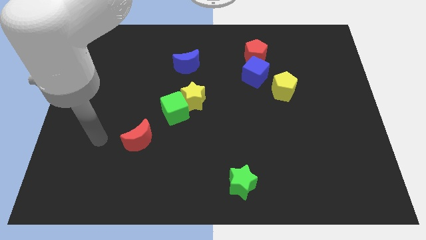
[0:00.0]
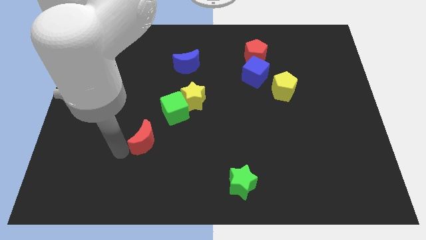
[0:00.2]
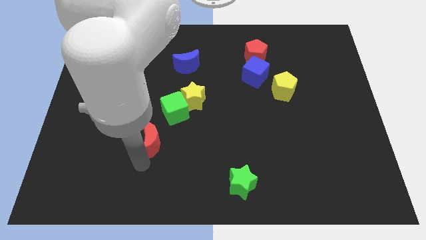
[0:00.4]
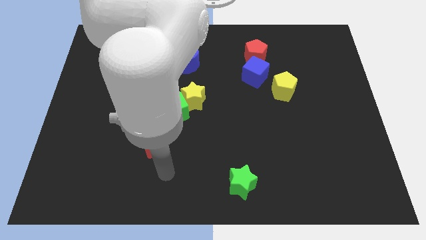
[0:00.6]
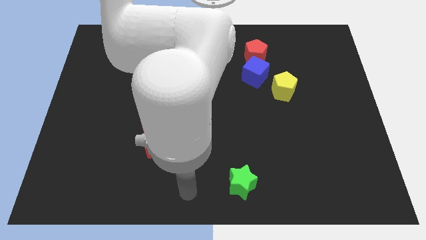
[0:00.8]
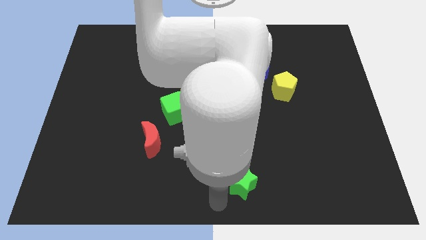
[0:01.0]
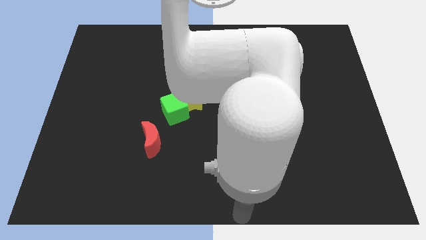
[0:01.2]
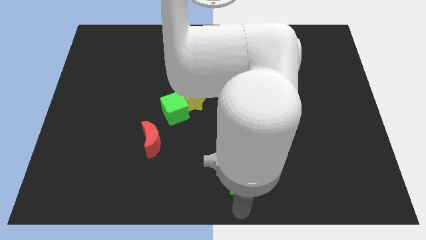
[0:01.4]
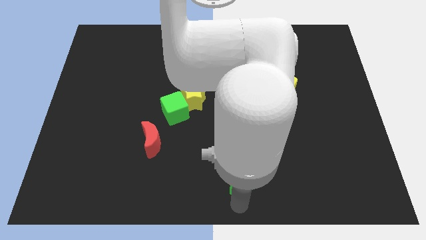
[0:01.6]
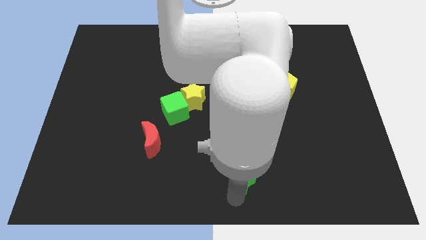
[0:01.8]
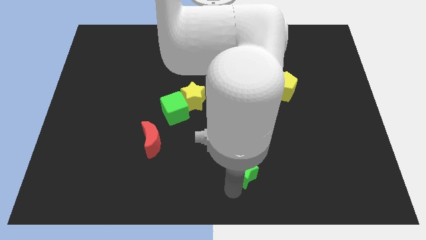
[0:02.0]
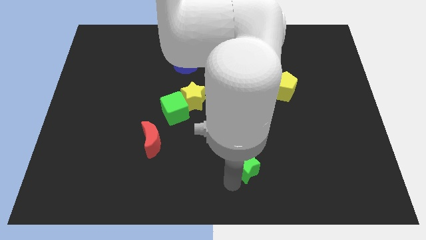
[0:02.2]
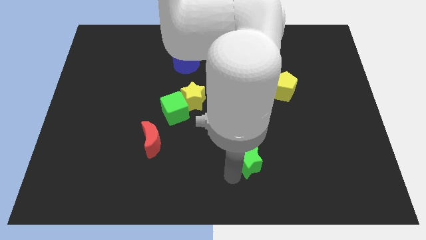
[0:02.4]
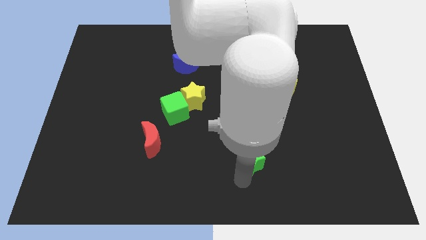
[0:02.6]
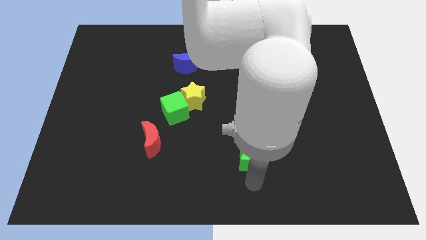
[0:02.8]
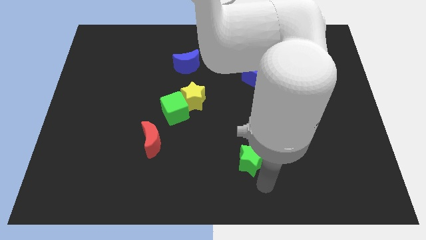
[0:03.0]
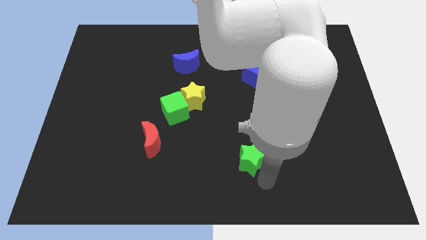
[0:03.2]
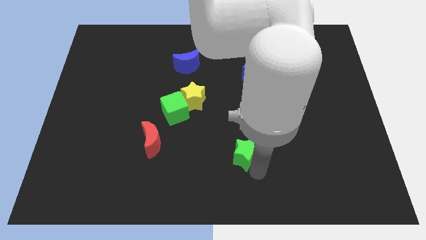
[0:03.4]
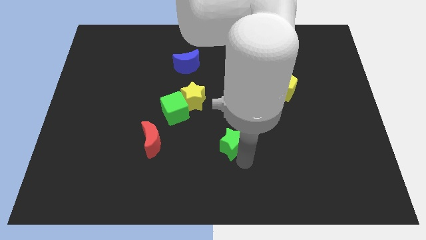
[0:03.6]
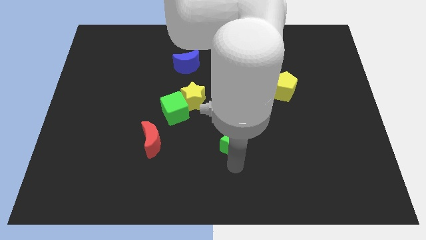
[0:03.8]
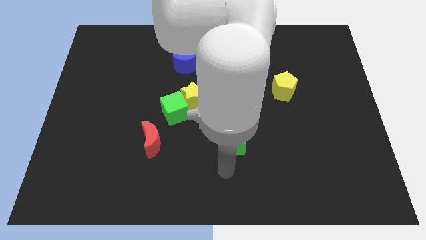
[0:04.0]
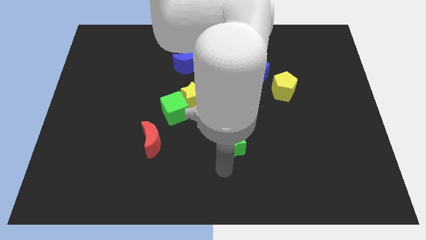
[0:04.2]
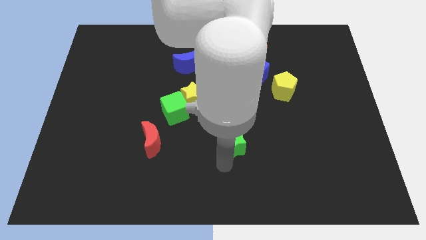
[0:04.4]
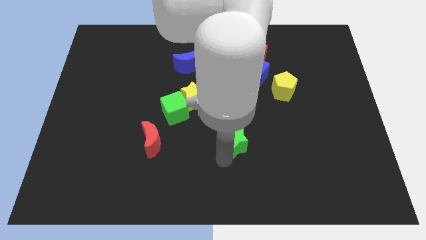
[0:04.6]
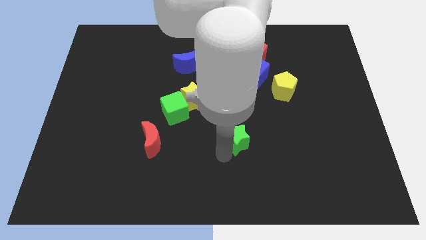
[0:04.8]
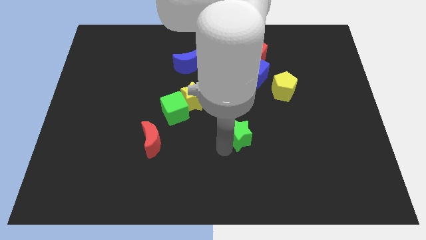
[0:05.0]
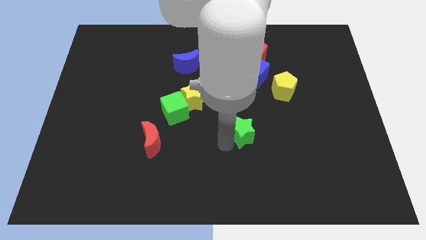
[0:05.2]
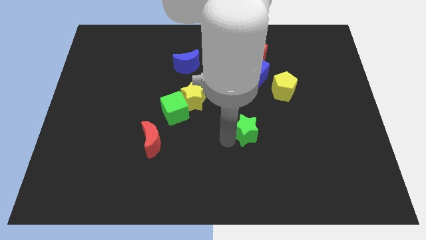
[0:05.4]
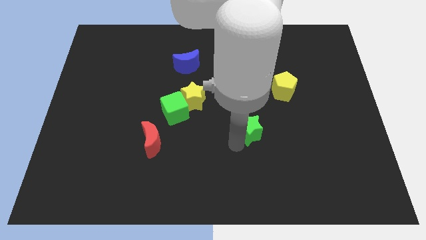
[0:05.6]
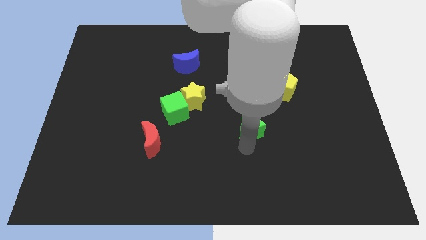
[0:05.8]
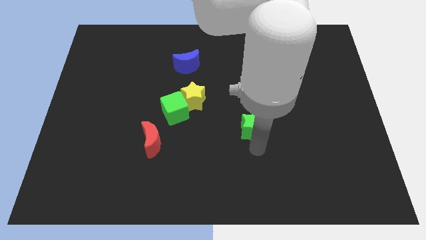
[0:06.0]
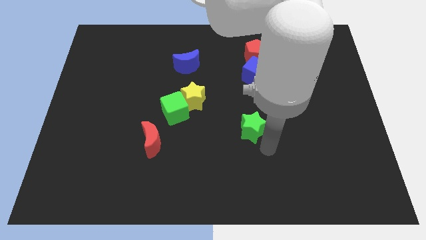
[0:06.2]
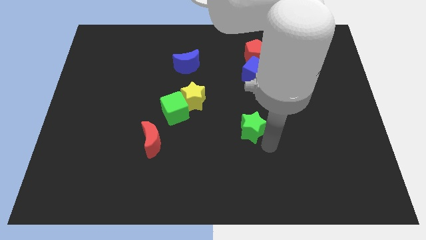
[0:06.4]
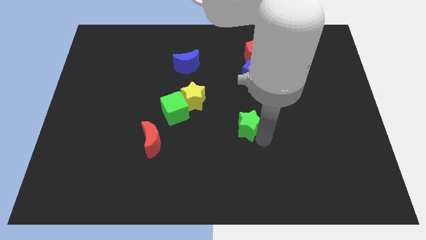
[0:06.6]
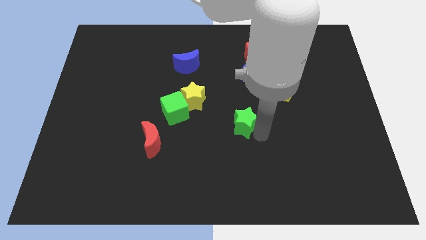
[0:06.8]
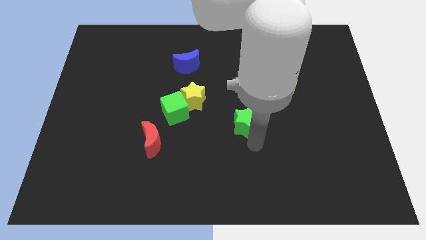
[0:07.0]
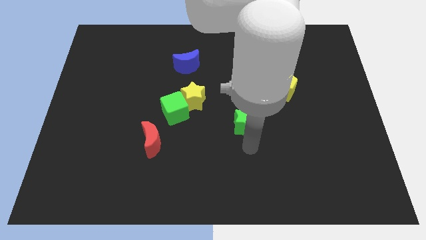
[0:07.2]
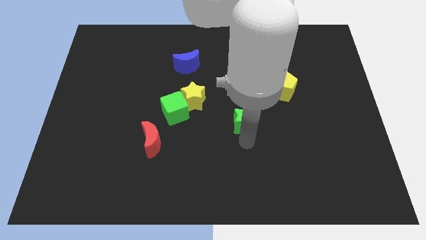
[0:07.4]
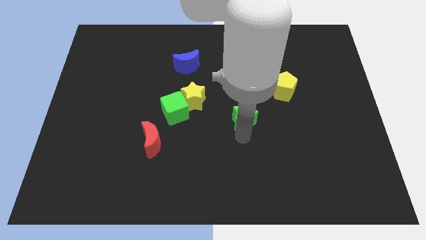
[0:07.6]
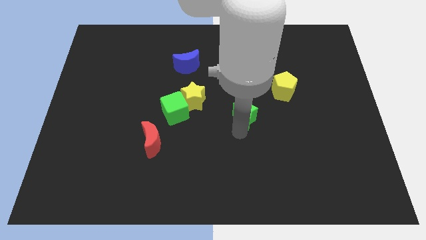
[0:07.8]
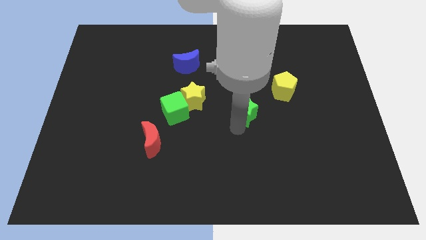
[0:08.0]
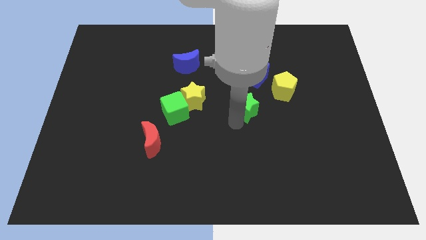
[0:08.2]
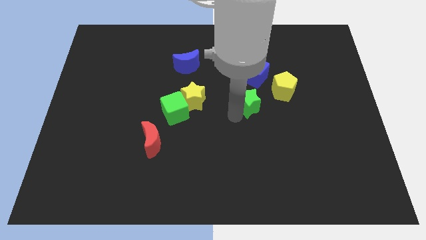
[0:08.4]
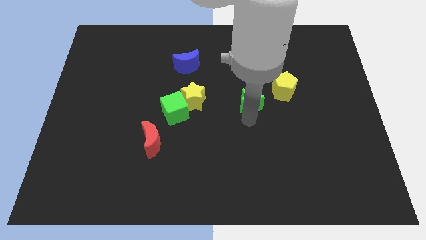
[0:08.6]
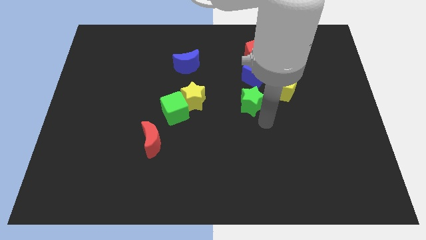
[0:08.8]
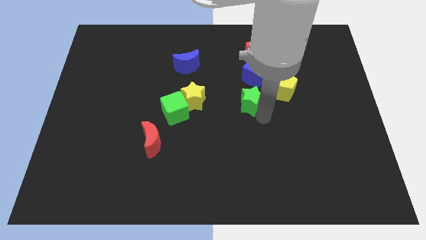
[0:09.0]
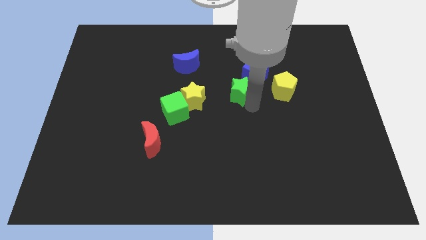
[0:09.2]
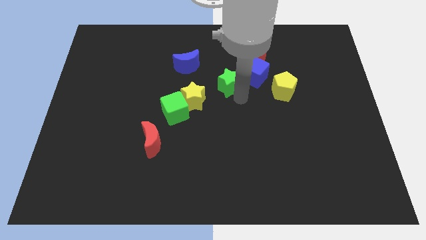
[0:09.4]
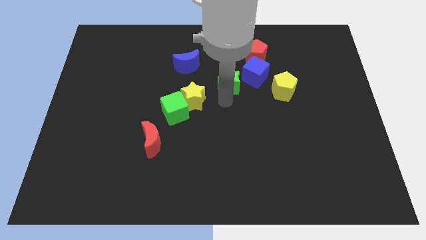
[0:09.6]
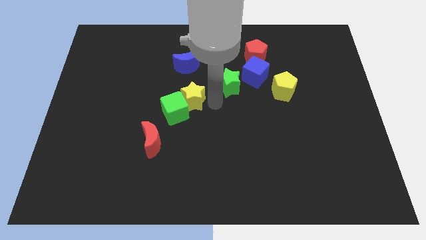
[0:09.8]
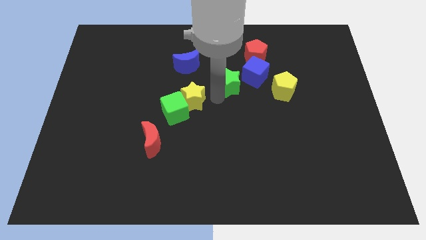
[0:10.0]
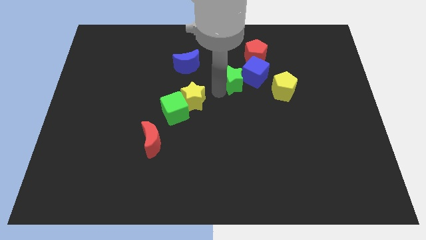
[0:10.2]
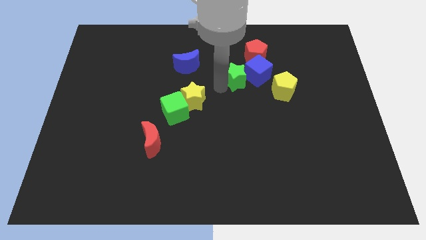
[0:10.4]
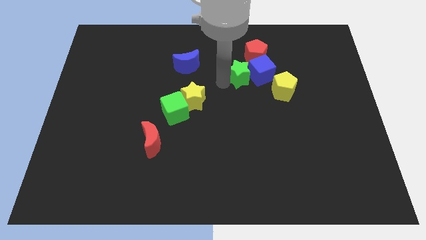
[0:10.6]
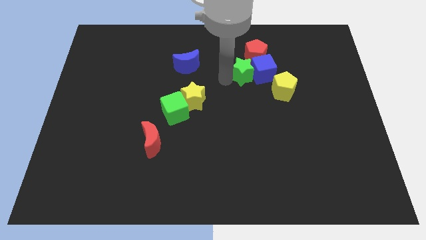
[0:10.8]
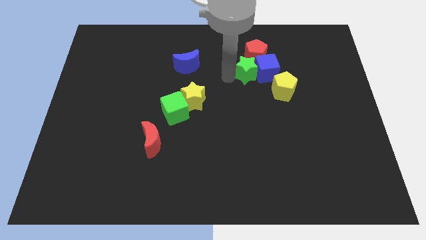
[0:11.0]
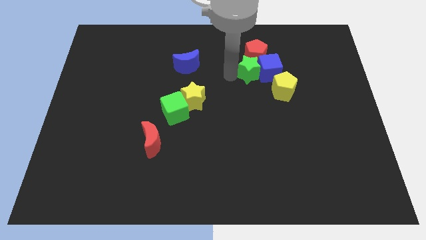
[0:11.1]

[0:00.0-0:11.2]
put the green star next to the red pentagon

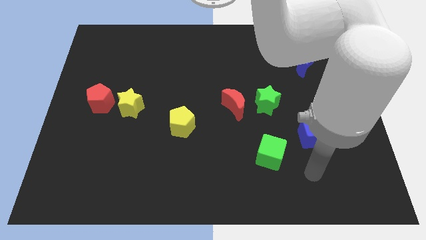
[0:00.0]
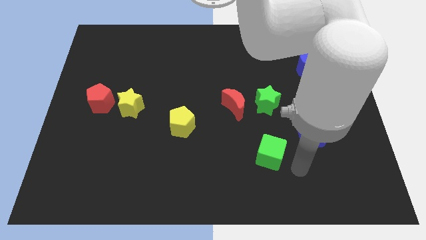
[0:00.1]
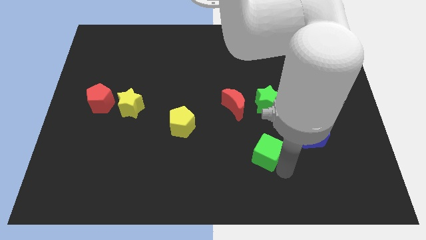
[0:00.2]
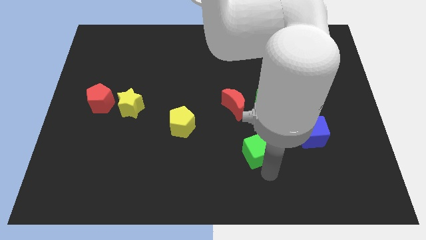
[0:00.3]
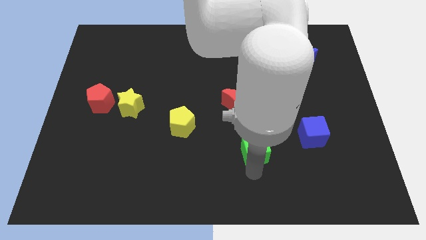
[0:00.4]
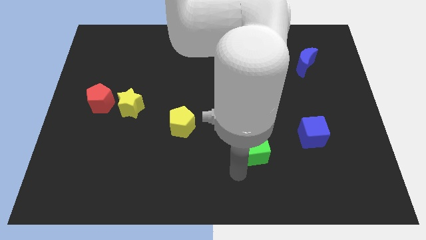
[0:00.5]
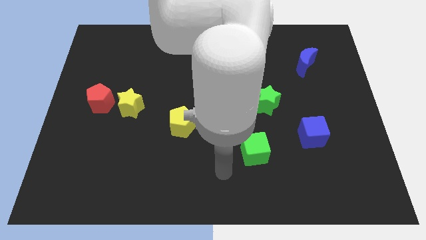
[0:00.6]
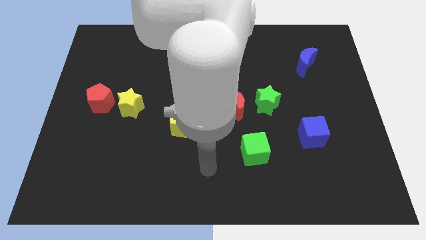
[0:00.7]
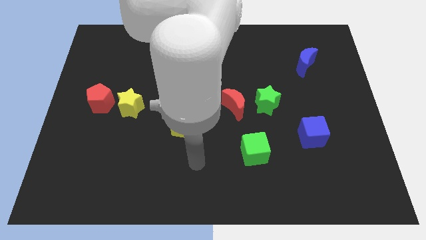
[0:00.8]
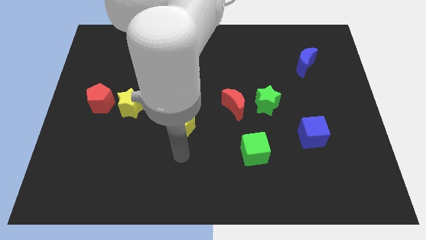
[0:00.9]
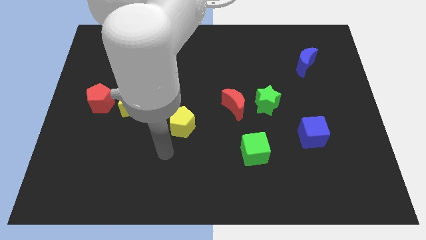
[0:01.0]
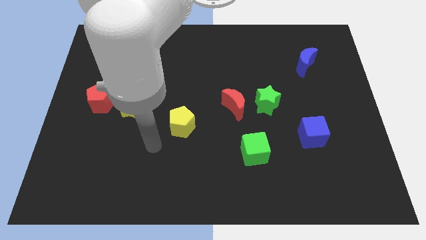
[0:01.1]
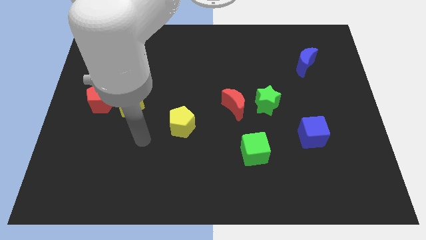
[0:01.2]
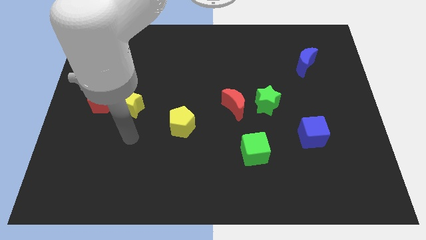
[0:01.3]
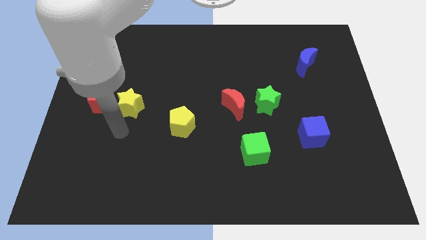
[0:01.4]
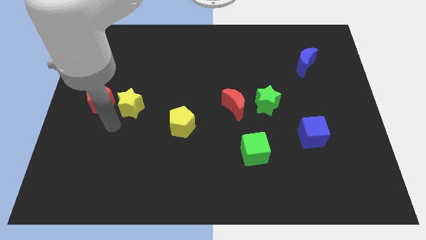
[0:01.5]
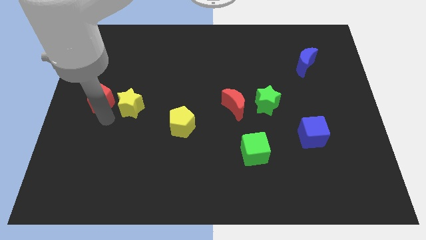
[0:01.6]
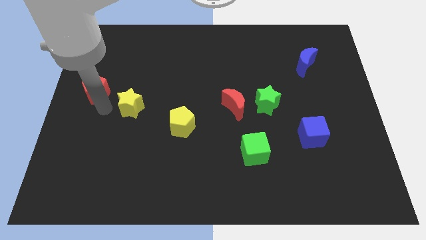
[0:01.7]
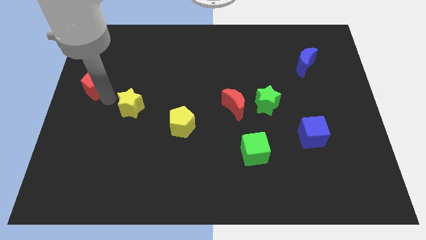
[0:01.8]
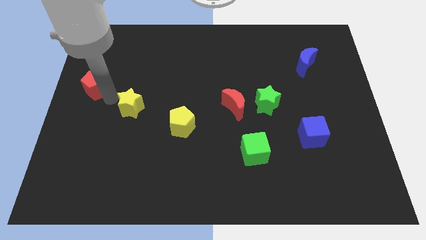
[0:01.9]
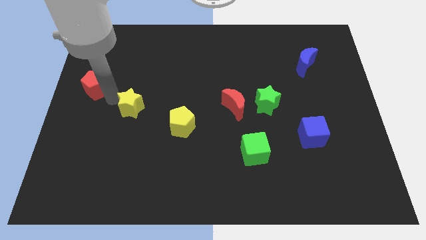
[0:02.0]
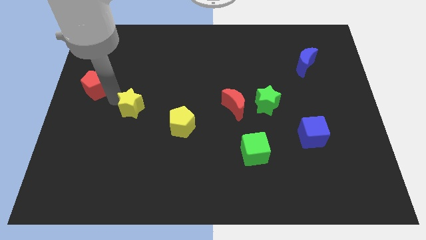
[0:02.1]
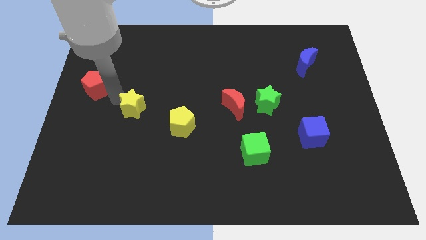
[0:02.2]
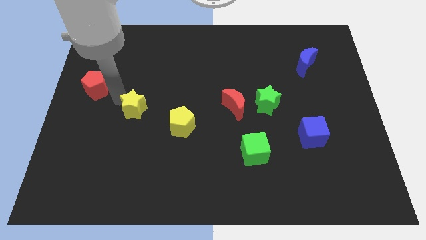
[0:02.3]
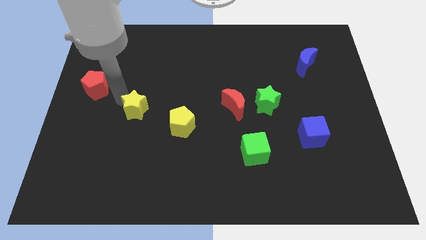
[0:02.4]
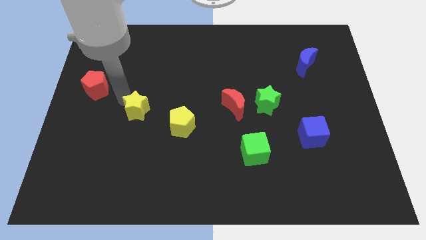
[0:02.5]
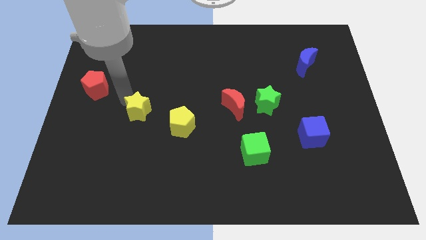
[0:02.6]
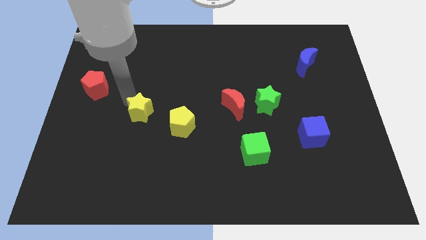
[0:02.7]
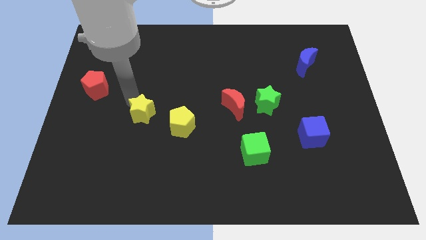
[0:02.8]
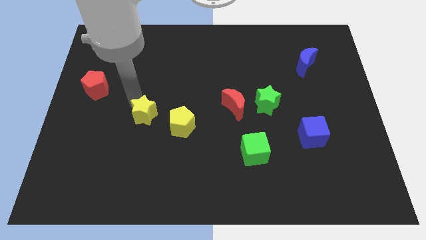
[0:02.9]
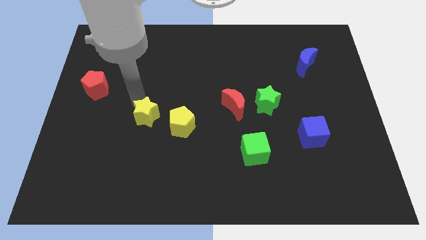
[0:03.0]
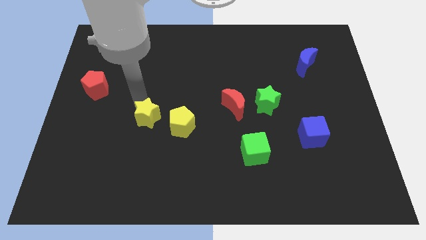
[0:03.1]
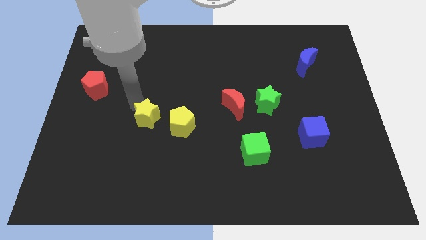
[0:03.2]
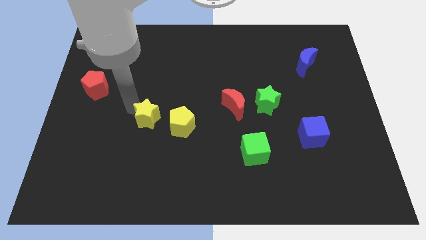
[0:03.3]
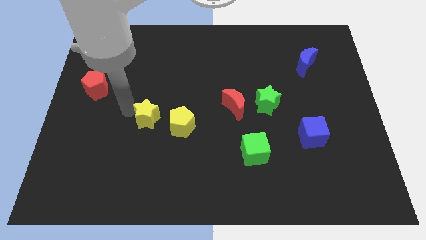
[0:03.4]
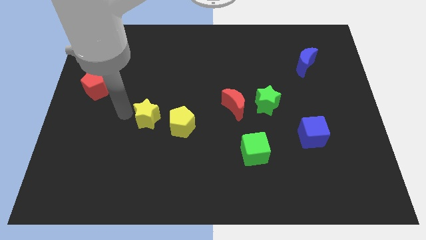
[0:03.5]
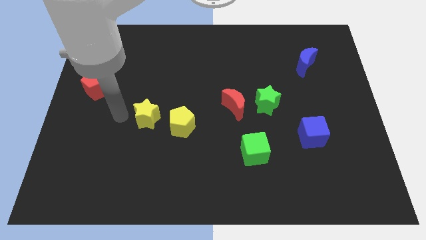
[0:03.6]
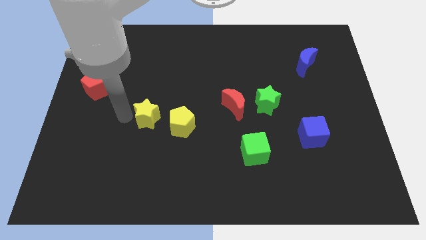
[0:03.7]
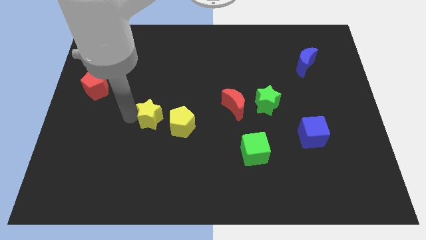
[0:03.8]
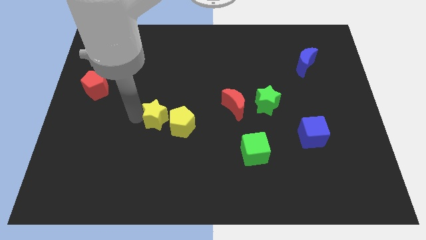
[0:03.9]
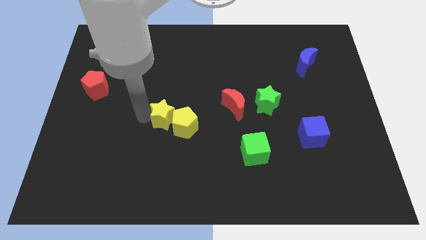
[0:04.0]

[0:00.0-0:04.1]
slide the yellow star close to the yellow pentagon
